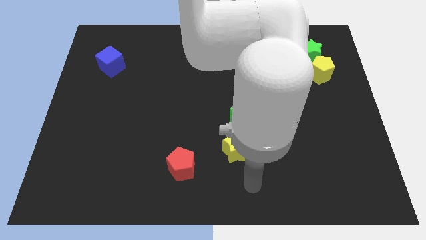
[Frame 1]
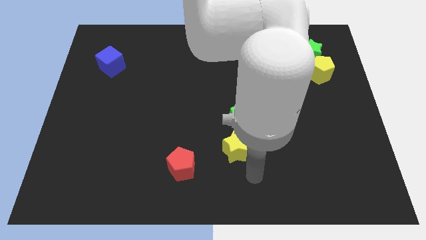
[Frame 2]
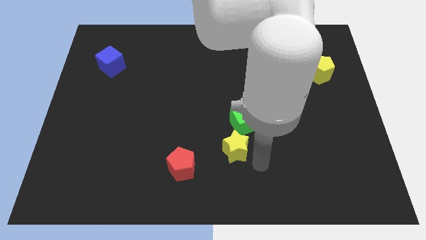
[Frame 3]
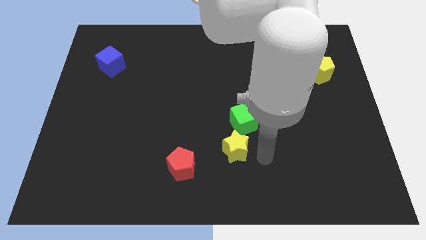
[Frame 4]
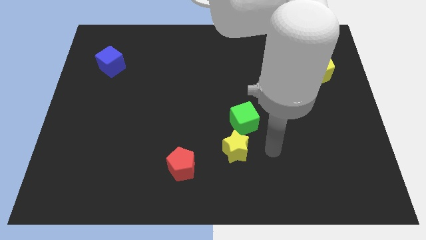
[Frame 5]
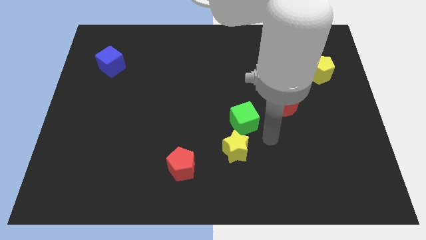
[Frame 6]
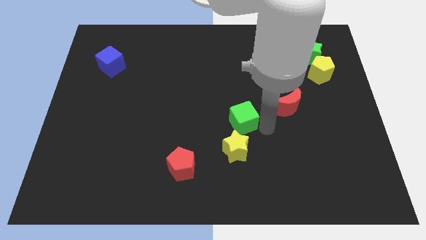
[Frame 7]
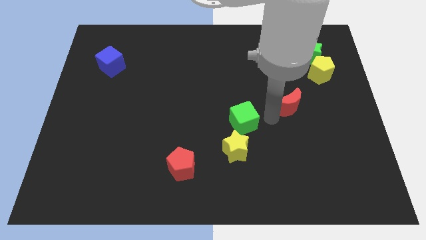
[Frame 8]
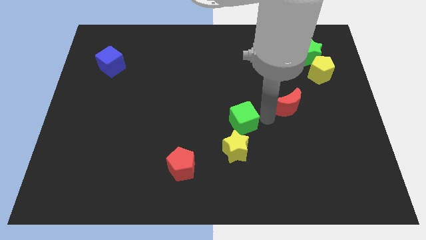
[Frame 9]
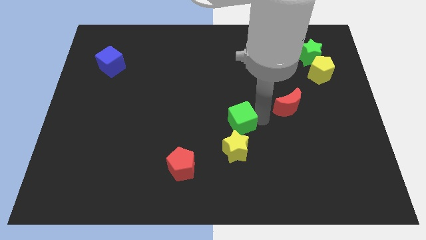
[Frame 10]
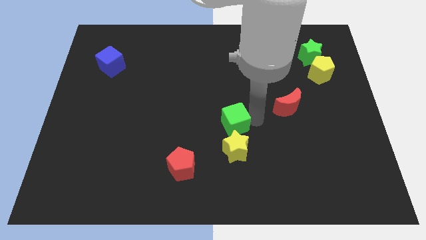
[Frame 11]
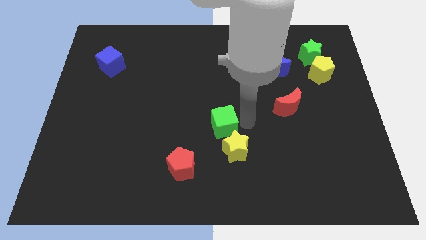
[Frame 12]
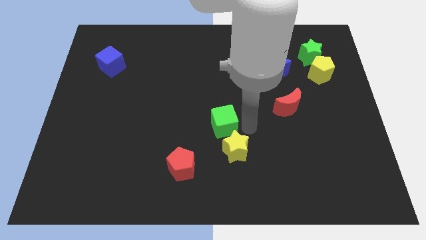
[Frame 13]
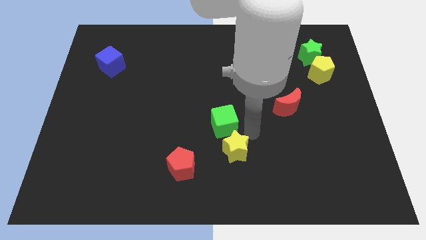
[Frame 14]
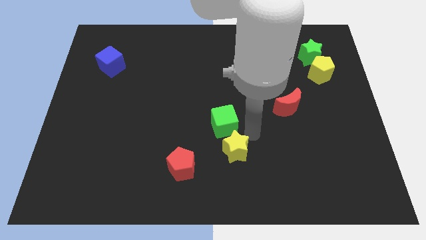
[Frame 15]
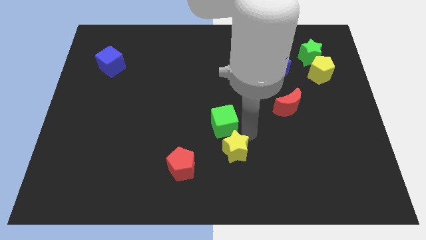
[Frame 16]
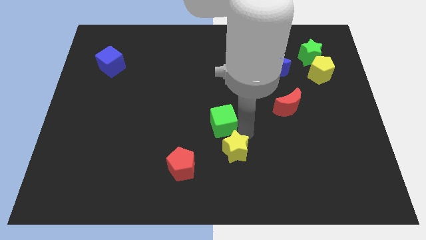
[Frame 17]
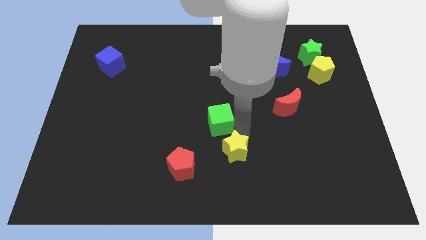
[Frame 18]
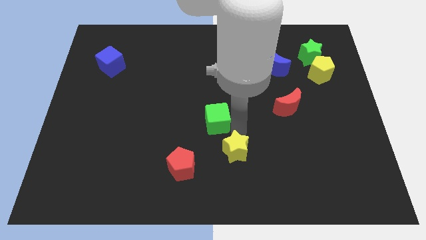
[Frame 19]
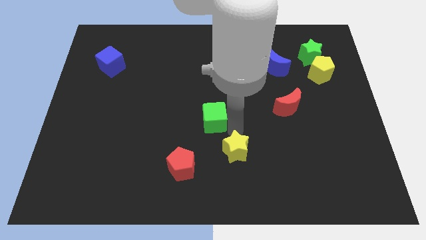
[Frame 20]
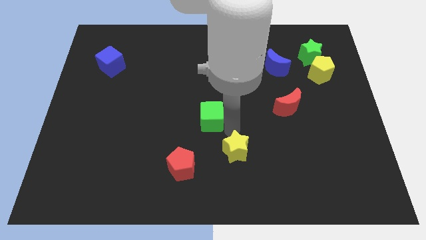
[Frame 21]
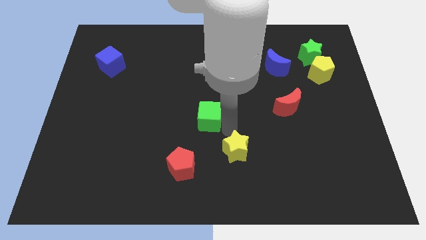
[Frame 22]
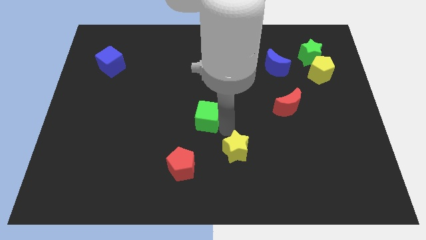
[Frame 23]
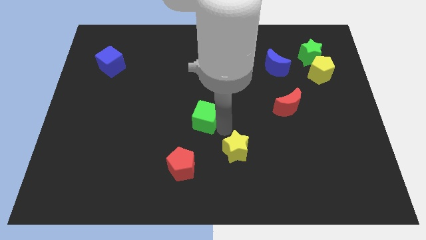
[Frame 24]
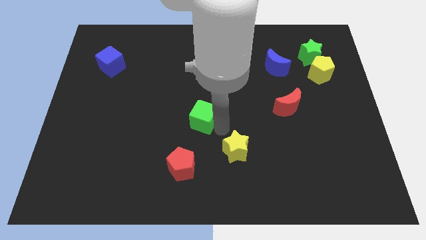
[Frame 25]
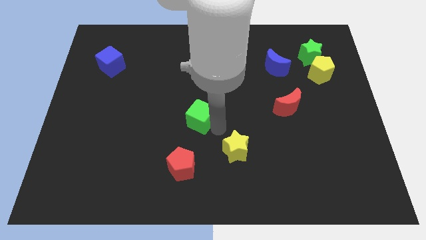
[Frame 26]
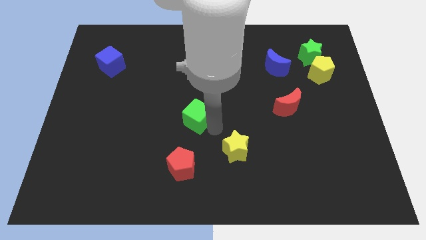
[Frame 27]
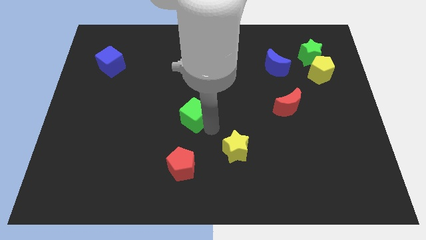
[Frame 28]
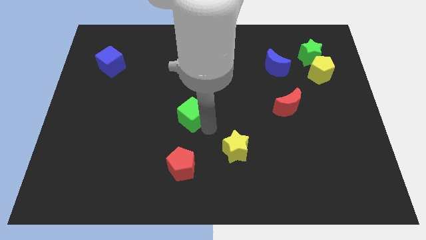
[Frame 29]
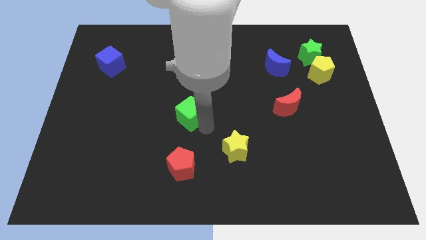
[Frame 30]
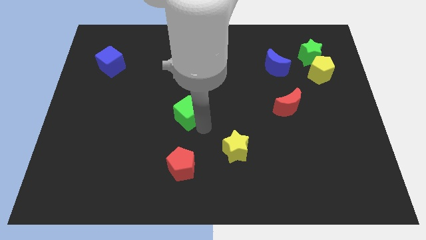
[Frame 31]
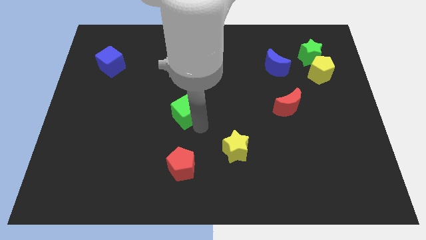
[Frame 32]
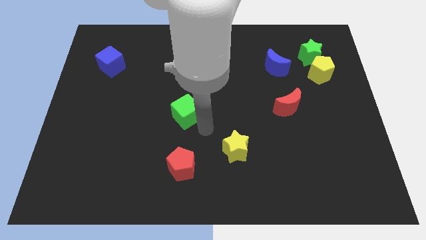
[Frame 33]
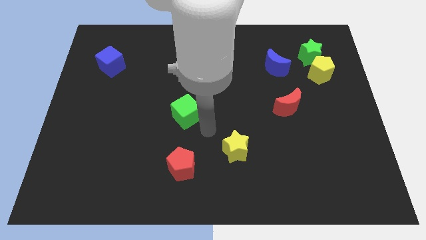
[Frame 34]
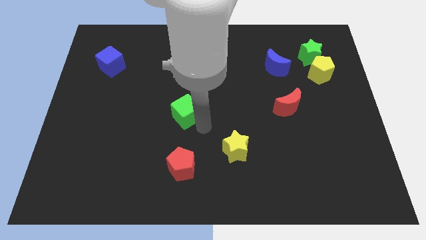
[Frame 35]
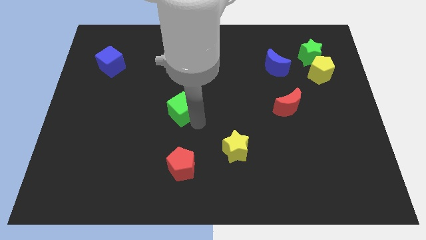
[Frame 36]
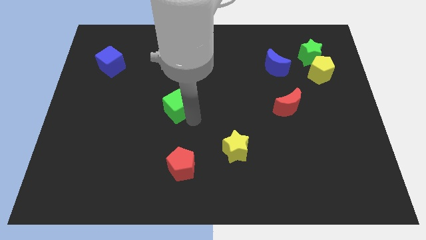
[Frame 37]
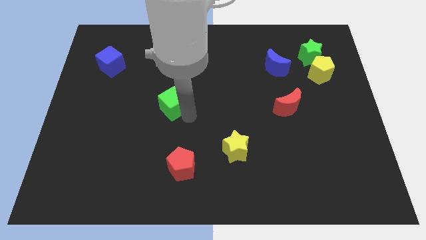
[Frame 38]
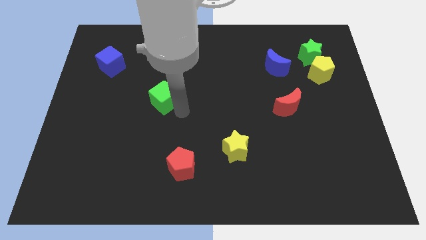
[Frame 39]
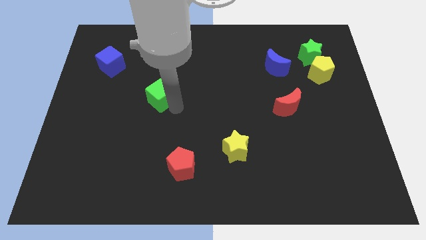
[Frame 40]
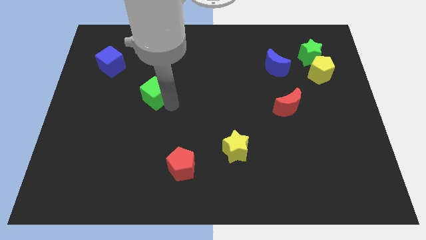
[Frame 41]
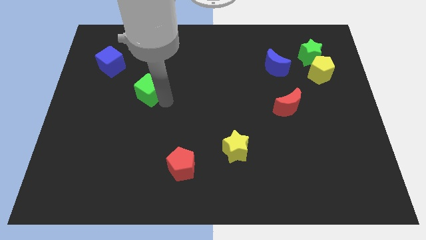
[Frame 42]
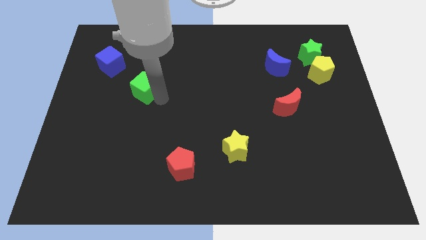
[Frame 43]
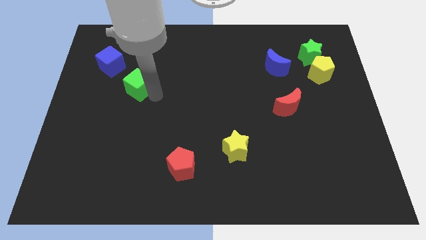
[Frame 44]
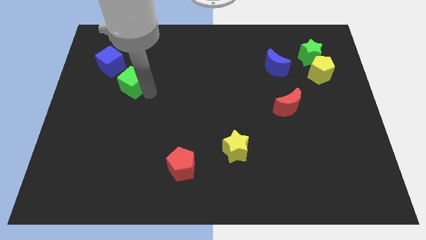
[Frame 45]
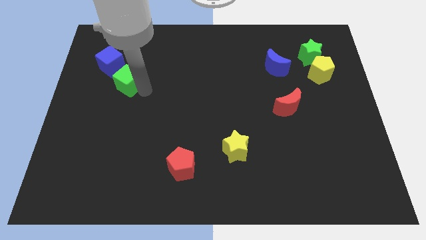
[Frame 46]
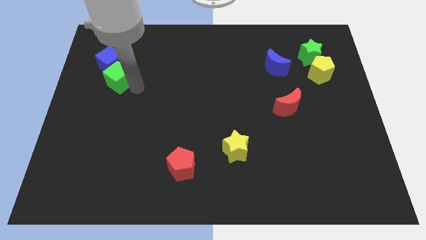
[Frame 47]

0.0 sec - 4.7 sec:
put the green cube close to the blue cube

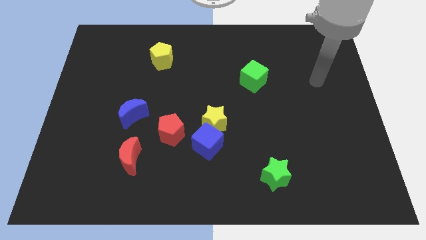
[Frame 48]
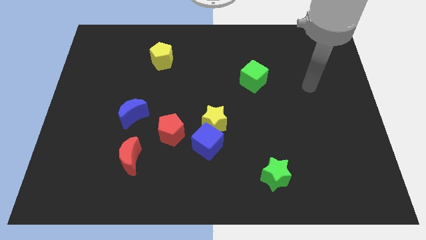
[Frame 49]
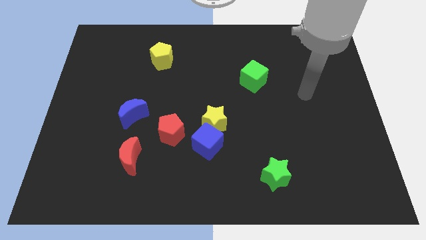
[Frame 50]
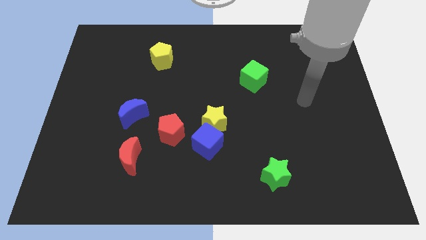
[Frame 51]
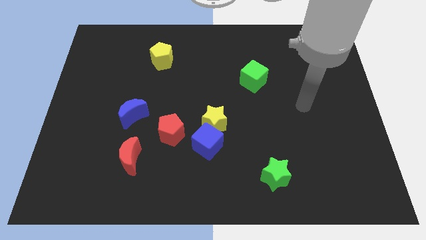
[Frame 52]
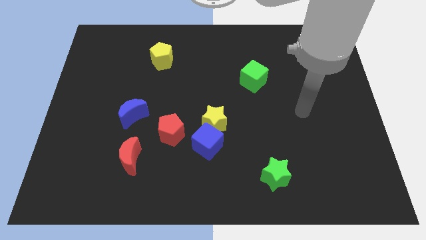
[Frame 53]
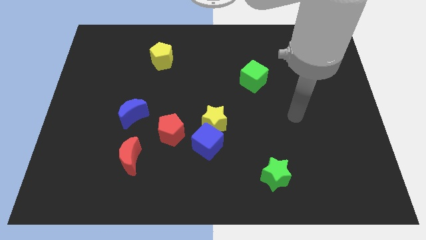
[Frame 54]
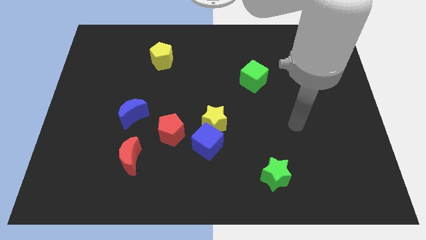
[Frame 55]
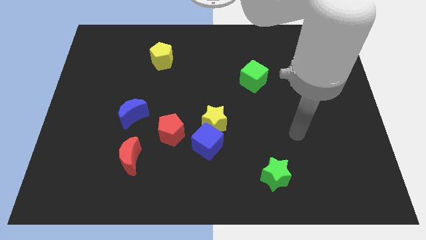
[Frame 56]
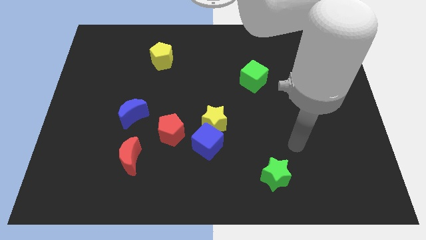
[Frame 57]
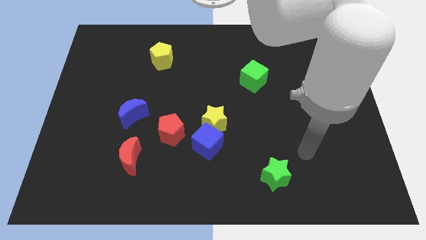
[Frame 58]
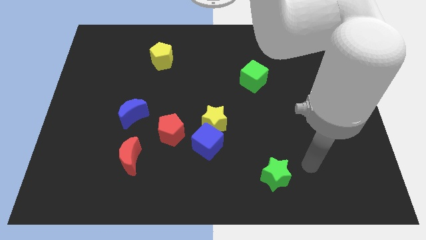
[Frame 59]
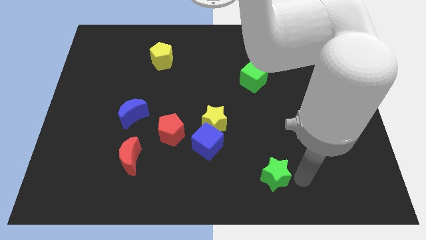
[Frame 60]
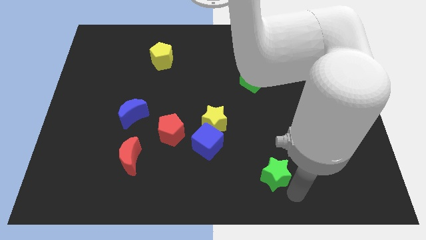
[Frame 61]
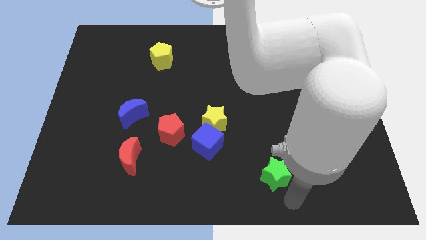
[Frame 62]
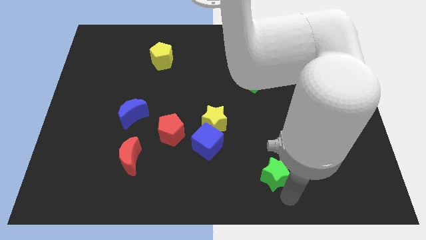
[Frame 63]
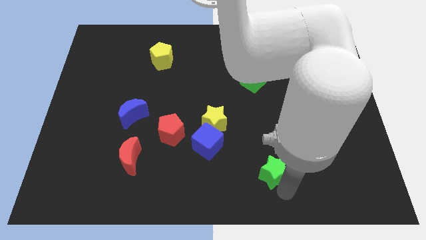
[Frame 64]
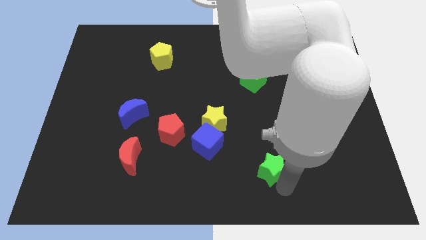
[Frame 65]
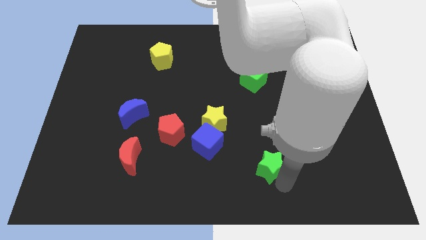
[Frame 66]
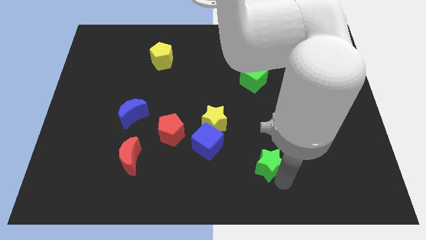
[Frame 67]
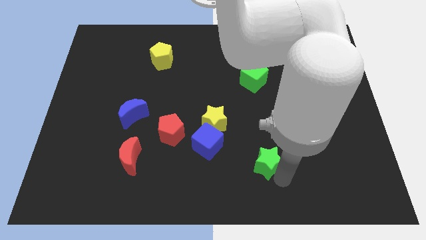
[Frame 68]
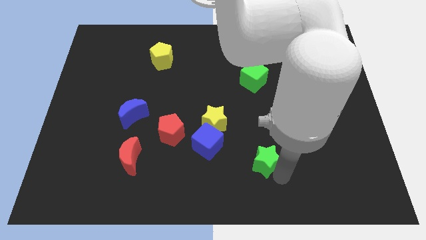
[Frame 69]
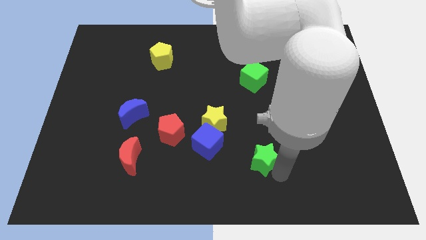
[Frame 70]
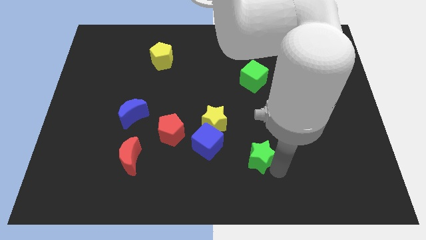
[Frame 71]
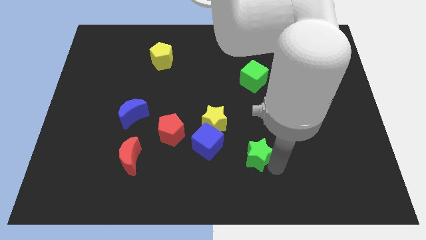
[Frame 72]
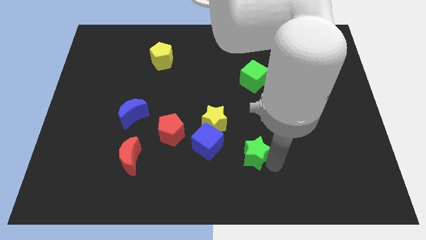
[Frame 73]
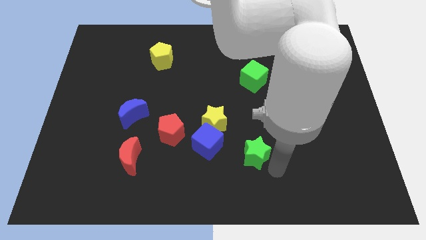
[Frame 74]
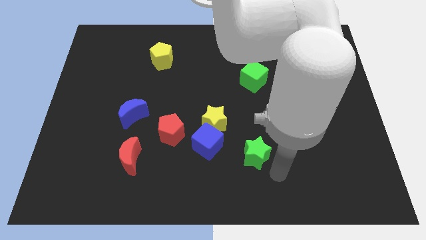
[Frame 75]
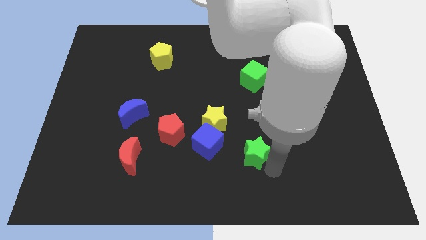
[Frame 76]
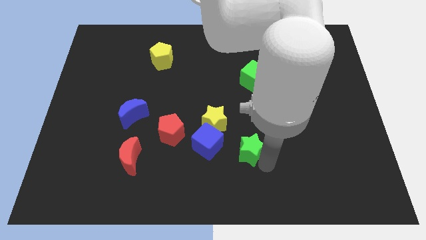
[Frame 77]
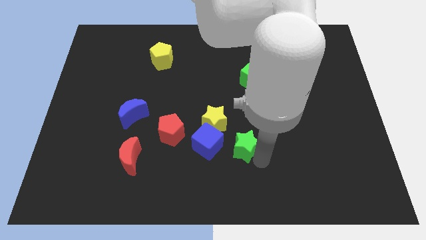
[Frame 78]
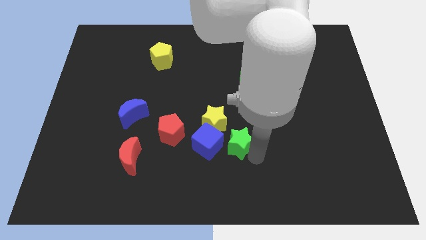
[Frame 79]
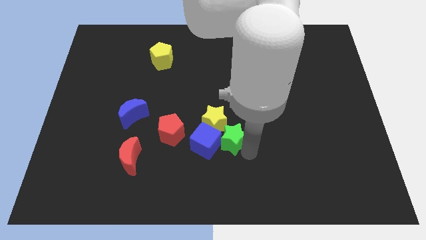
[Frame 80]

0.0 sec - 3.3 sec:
slide the green star towards the yellow star

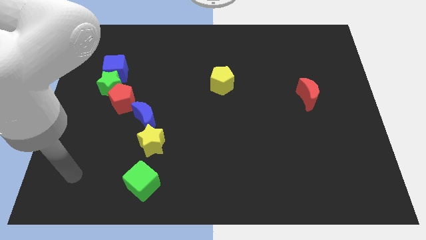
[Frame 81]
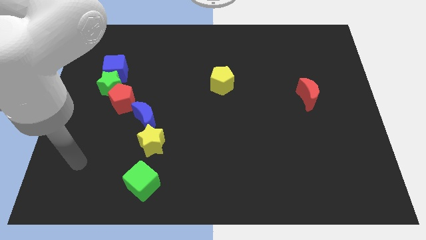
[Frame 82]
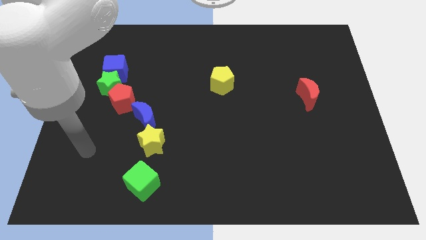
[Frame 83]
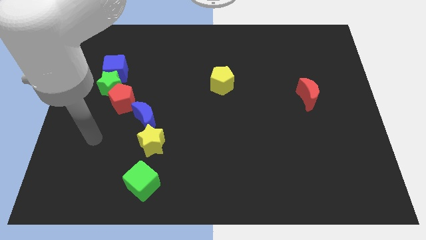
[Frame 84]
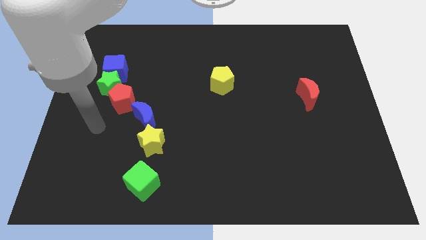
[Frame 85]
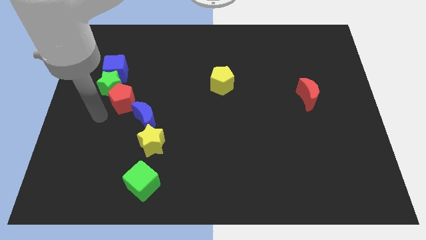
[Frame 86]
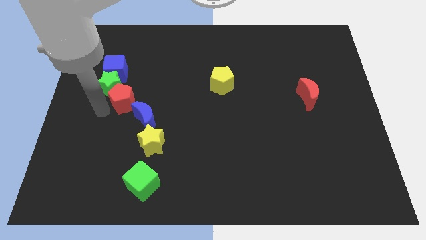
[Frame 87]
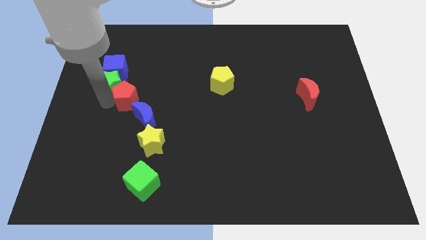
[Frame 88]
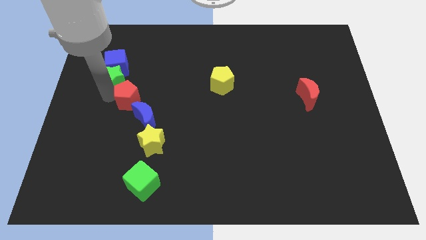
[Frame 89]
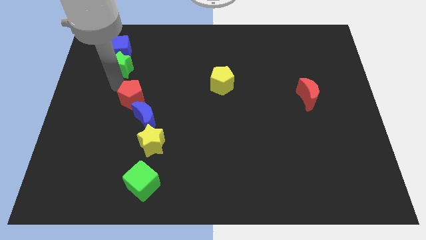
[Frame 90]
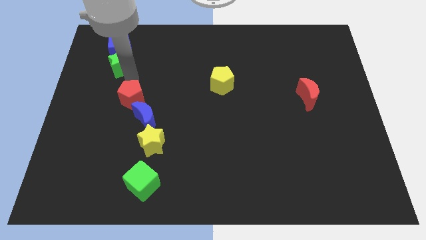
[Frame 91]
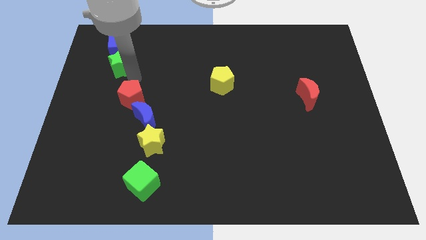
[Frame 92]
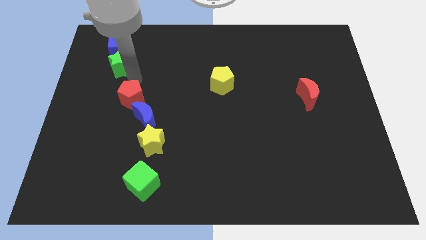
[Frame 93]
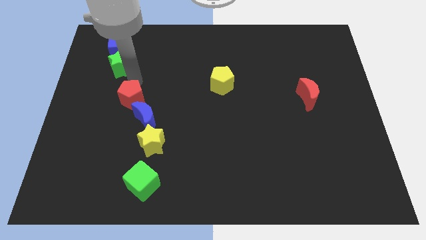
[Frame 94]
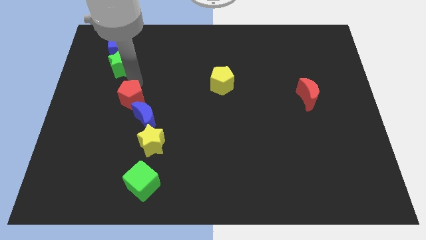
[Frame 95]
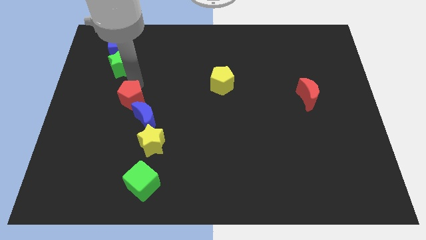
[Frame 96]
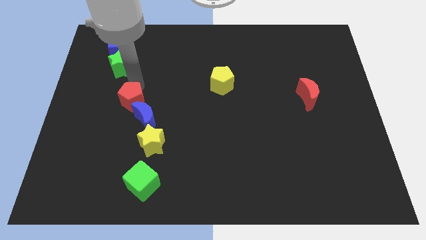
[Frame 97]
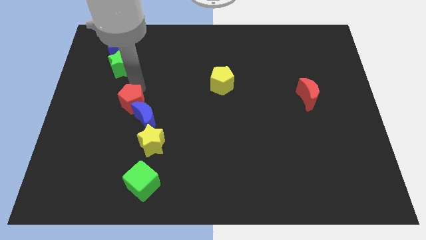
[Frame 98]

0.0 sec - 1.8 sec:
slide the red pentagon next to the blue moon
